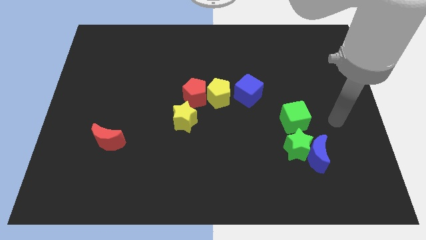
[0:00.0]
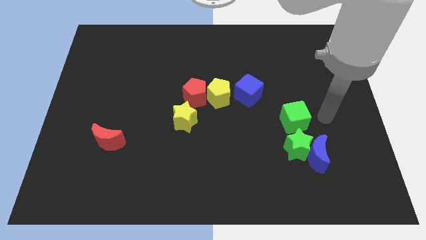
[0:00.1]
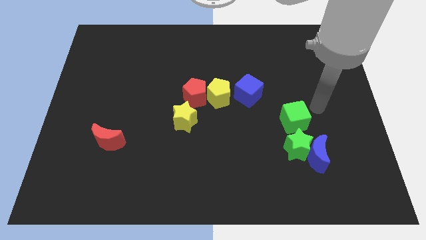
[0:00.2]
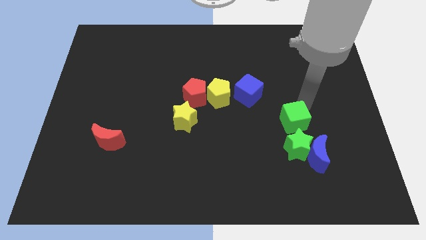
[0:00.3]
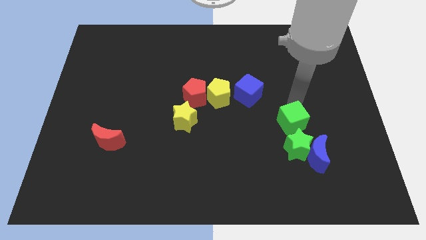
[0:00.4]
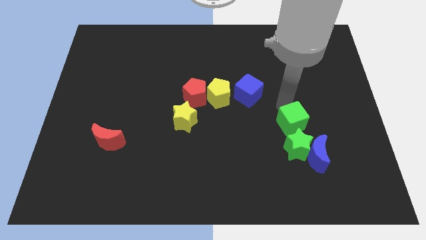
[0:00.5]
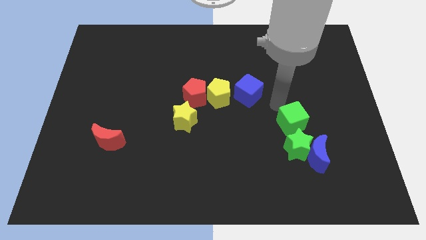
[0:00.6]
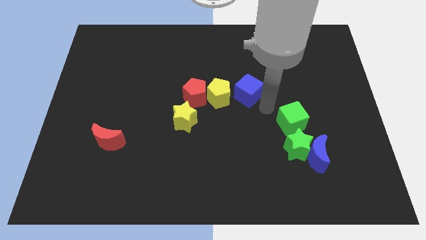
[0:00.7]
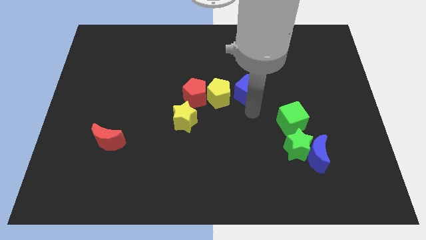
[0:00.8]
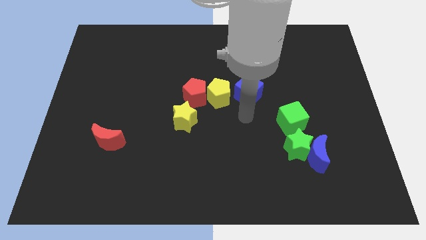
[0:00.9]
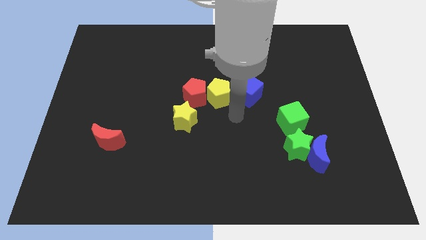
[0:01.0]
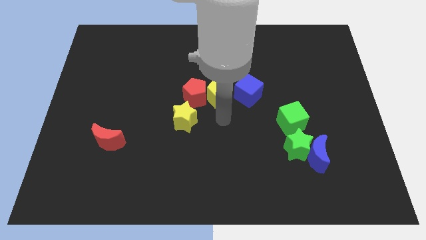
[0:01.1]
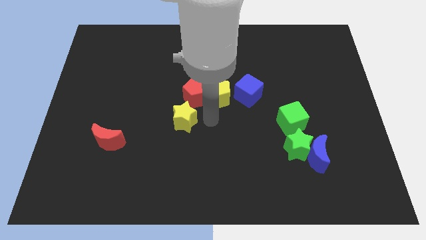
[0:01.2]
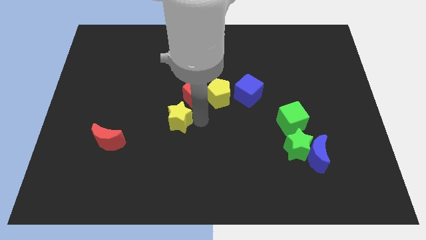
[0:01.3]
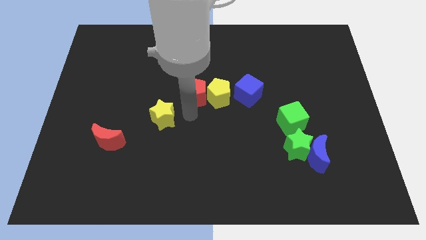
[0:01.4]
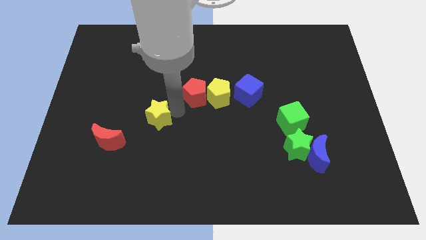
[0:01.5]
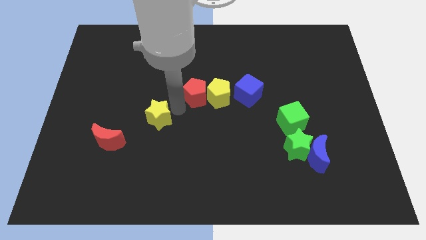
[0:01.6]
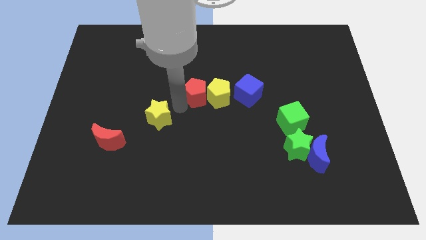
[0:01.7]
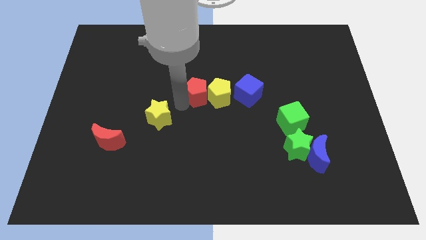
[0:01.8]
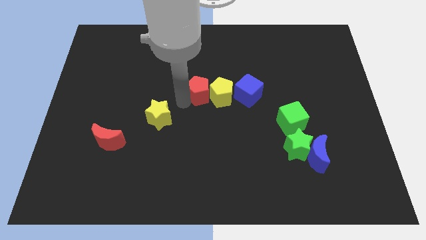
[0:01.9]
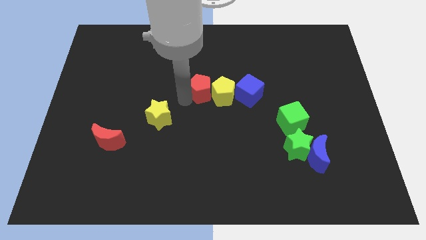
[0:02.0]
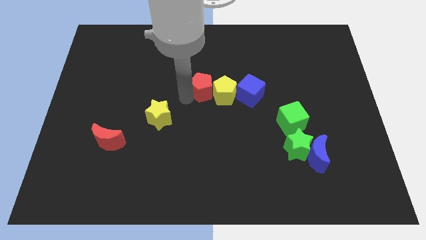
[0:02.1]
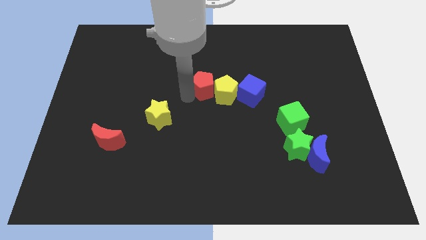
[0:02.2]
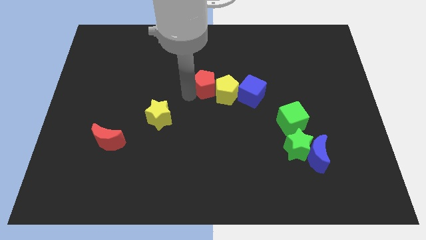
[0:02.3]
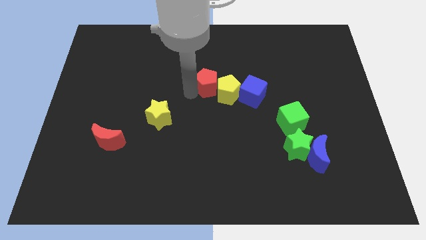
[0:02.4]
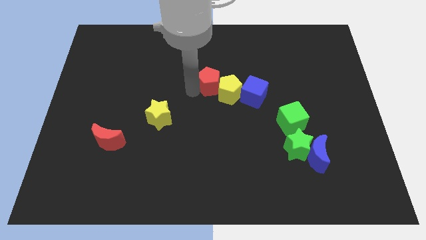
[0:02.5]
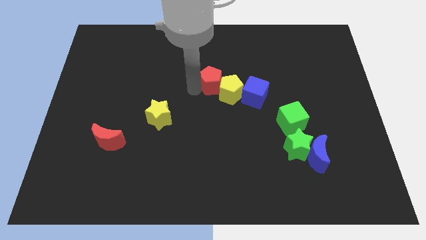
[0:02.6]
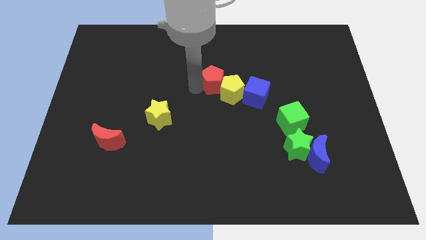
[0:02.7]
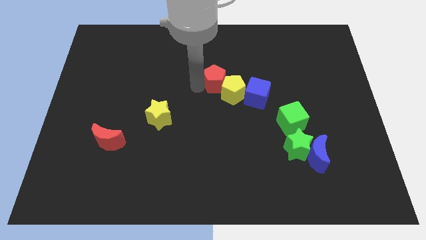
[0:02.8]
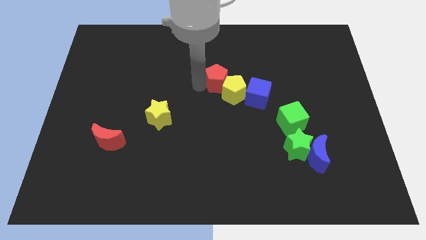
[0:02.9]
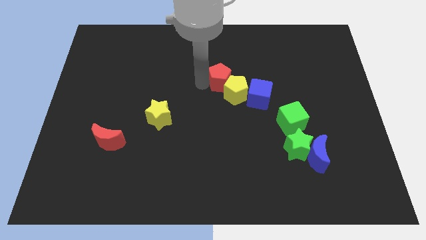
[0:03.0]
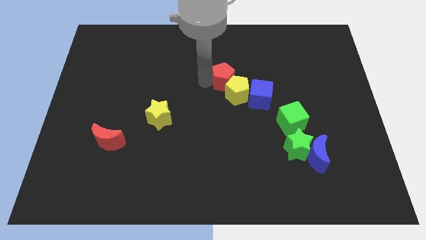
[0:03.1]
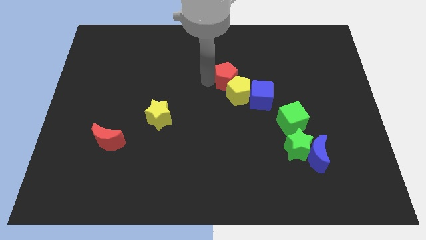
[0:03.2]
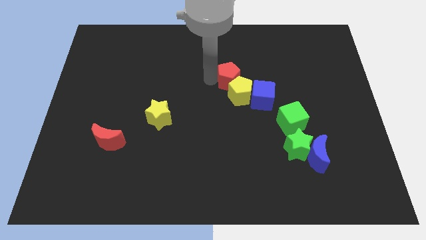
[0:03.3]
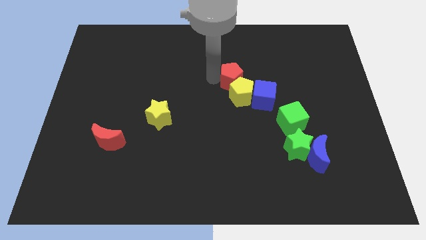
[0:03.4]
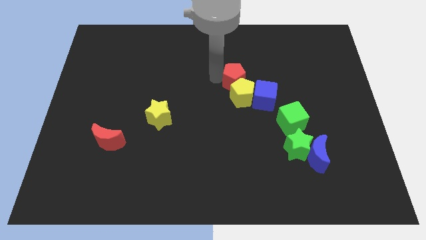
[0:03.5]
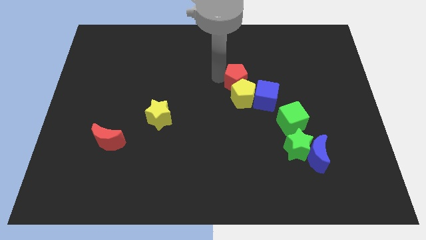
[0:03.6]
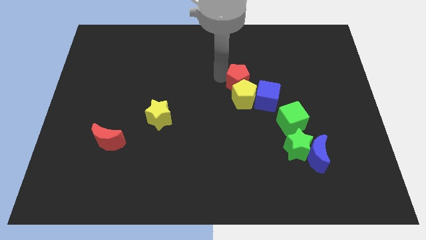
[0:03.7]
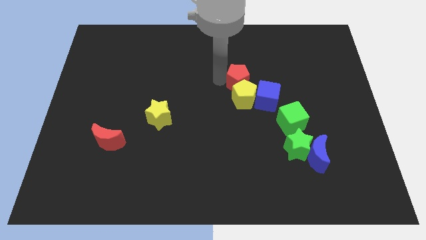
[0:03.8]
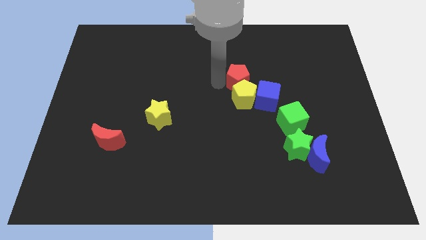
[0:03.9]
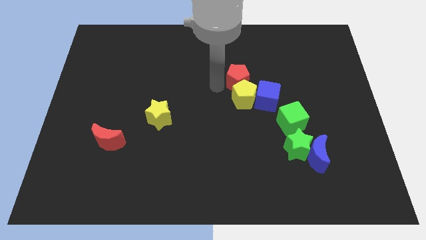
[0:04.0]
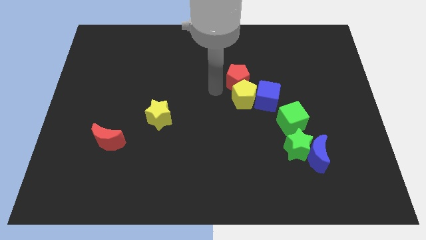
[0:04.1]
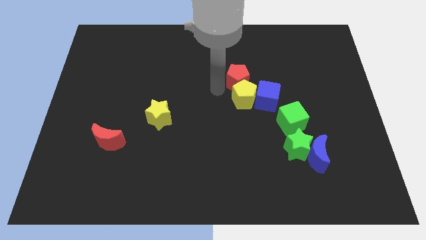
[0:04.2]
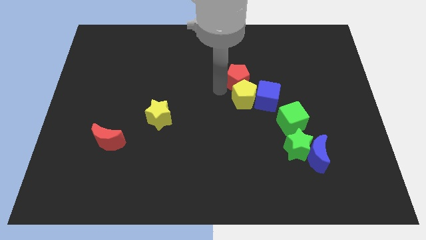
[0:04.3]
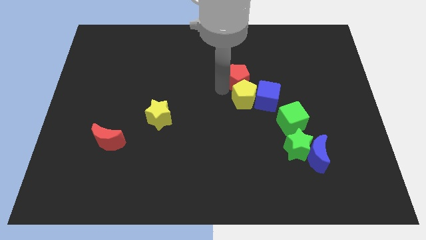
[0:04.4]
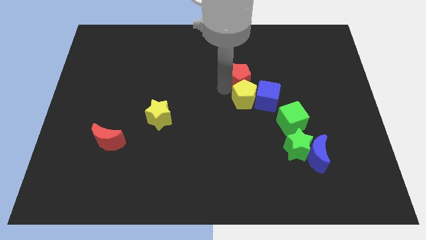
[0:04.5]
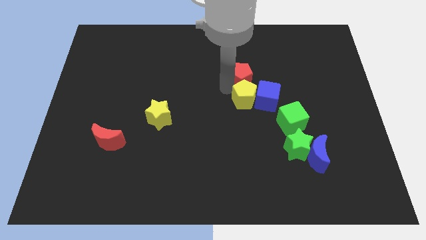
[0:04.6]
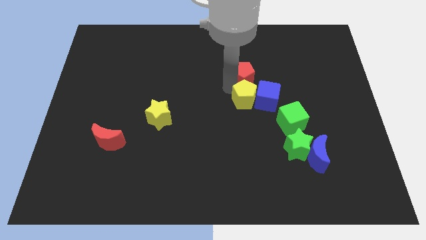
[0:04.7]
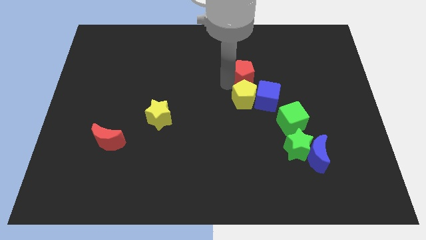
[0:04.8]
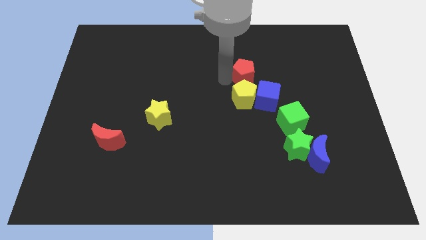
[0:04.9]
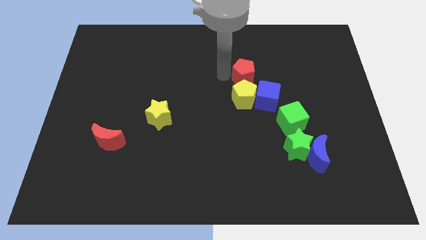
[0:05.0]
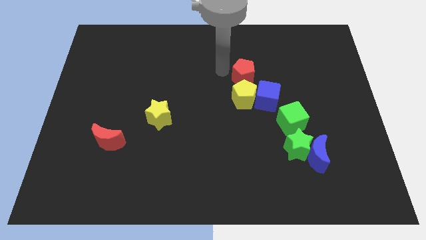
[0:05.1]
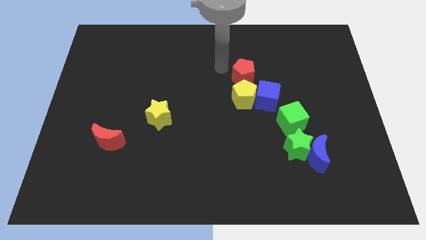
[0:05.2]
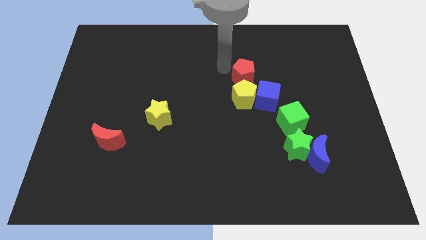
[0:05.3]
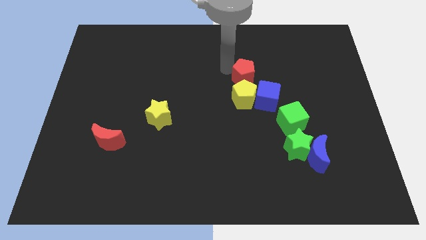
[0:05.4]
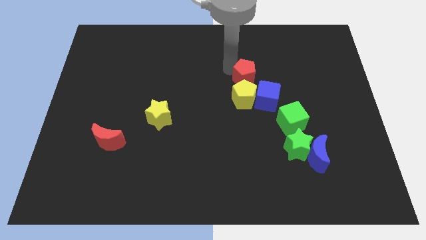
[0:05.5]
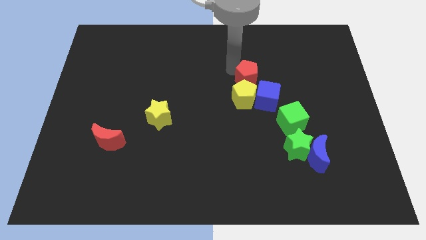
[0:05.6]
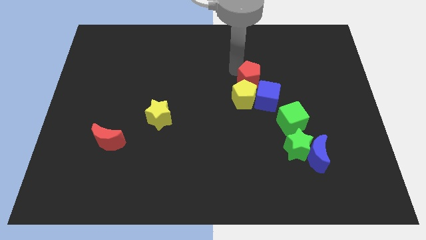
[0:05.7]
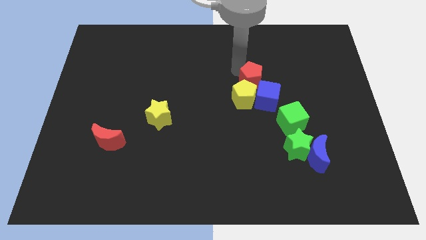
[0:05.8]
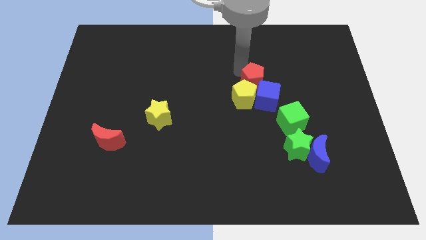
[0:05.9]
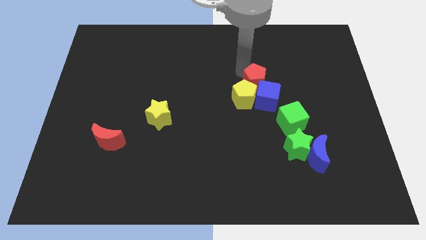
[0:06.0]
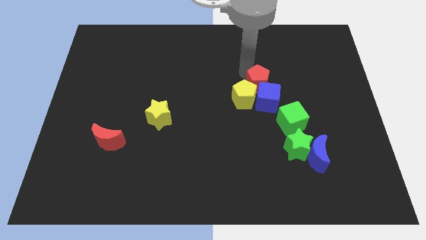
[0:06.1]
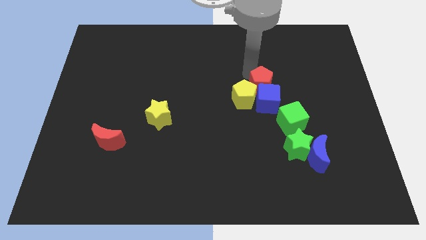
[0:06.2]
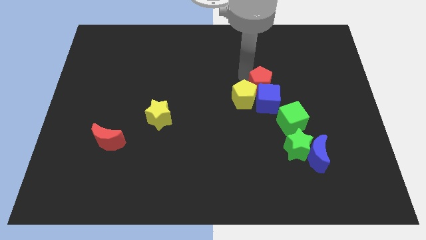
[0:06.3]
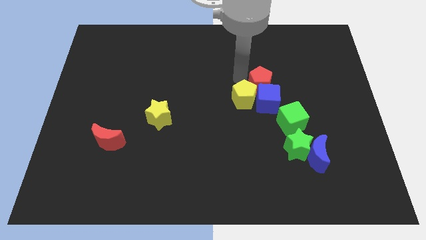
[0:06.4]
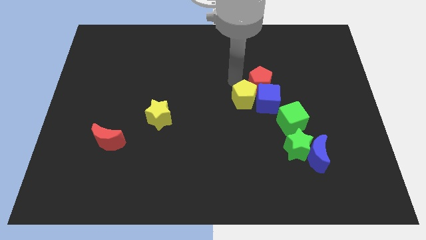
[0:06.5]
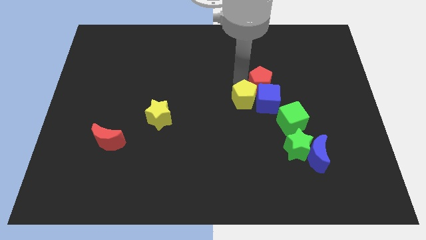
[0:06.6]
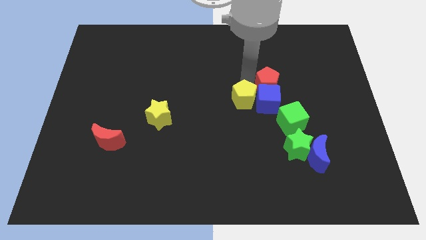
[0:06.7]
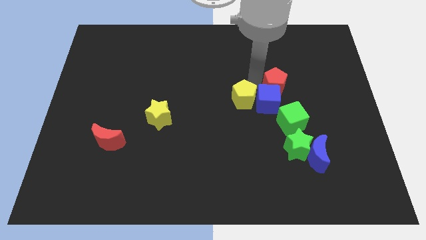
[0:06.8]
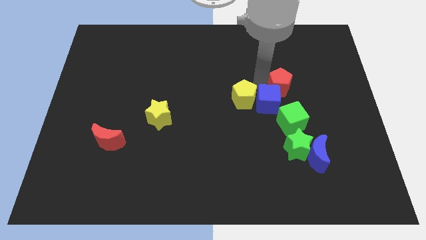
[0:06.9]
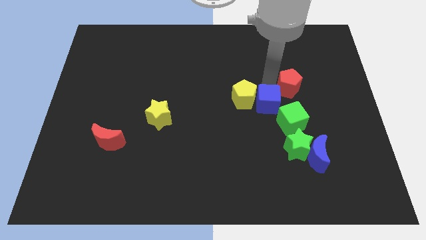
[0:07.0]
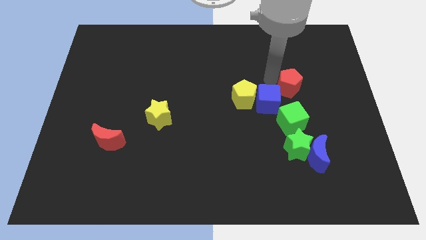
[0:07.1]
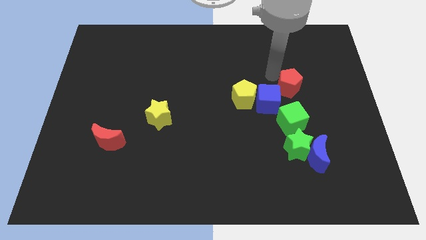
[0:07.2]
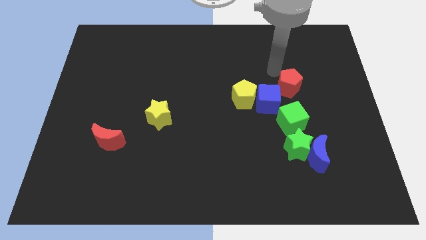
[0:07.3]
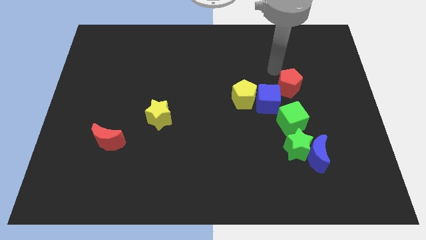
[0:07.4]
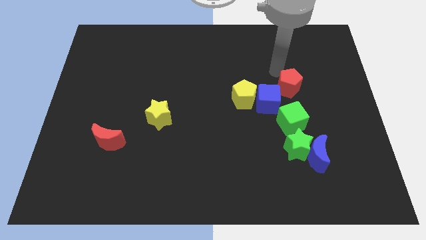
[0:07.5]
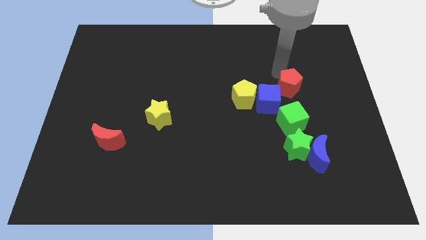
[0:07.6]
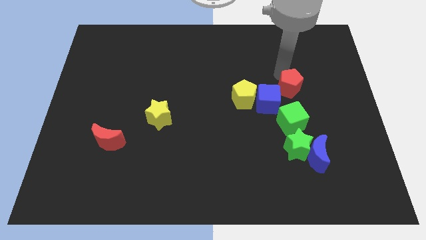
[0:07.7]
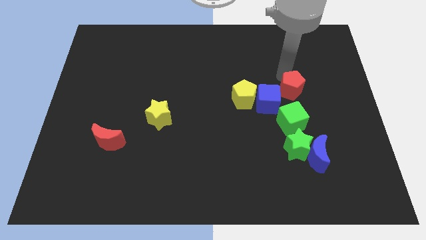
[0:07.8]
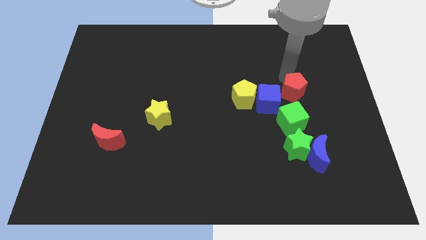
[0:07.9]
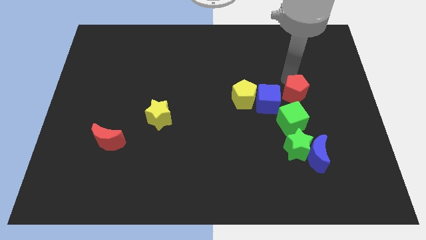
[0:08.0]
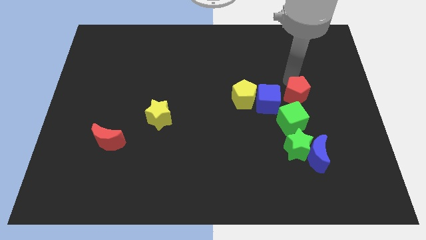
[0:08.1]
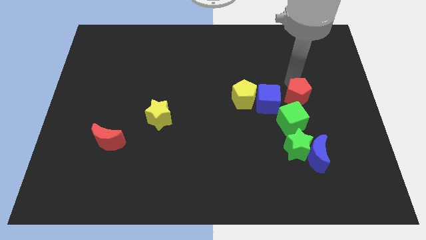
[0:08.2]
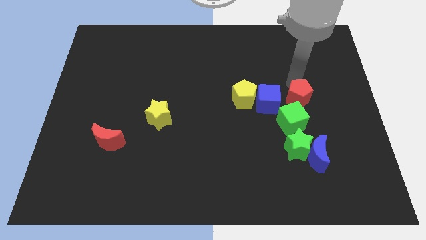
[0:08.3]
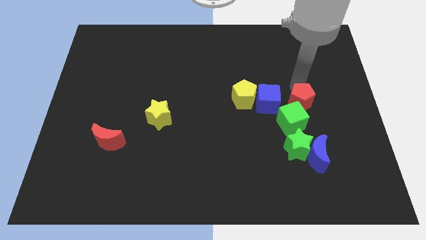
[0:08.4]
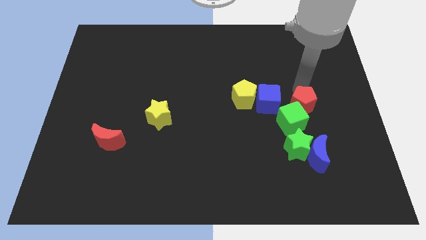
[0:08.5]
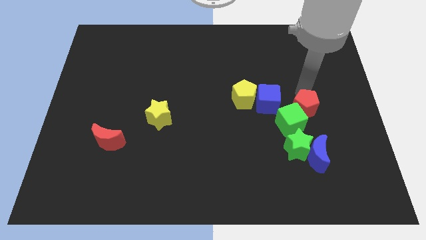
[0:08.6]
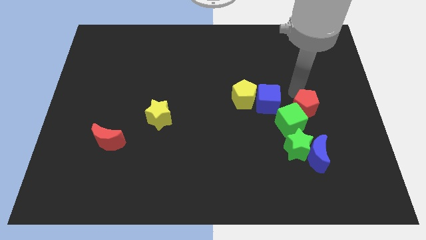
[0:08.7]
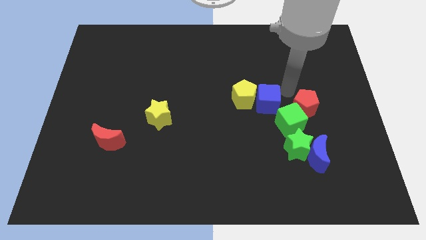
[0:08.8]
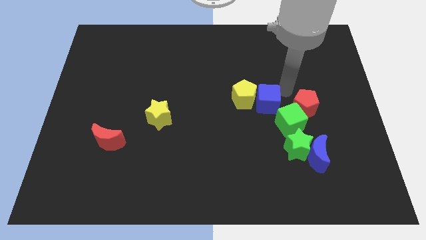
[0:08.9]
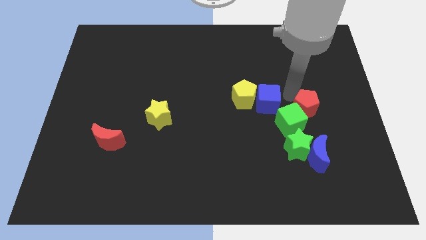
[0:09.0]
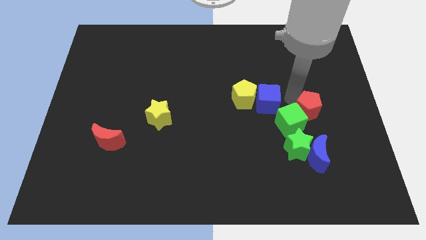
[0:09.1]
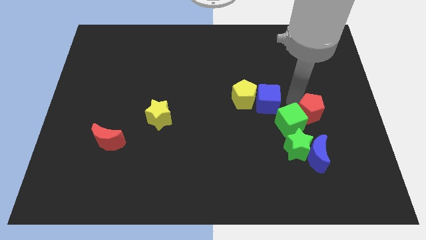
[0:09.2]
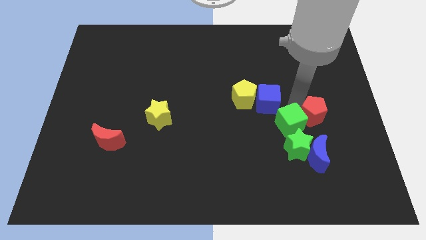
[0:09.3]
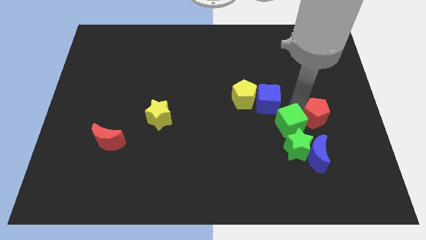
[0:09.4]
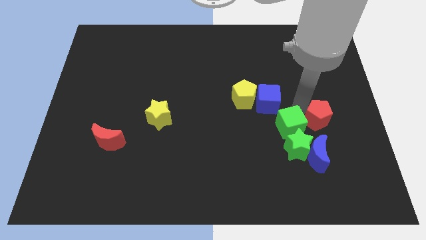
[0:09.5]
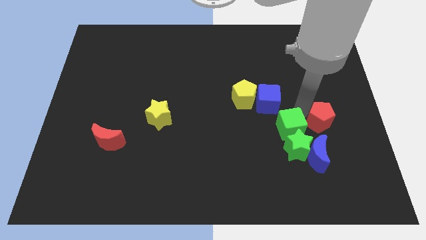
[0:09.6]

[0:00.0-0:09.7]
move the red pentagon diagonally up and to the right of the blue moon
